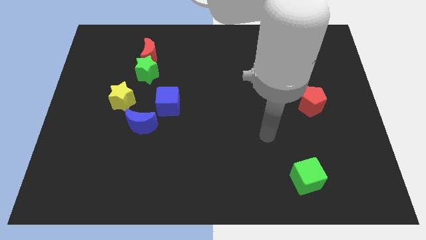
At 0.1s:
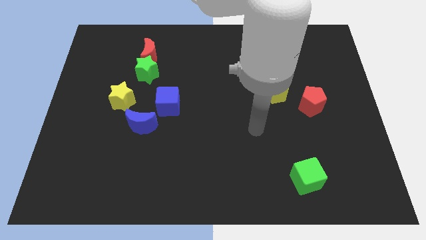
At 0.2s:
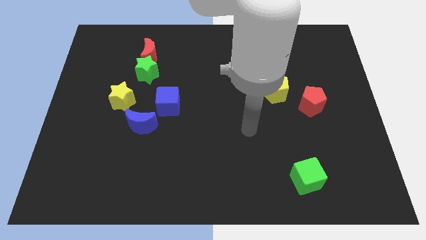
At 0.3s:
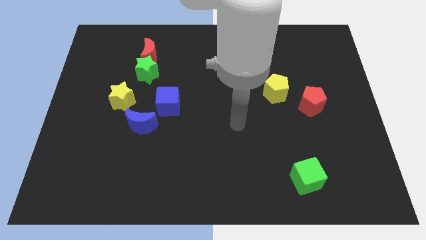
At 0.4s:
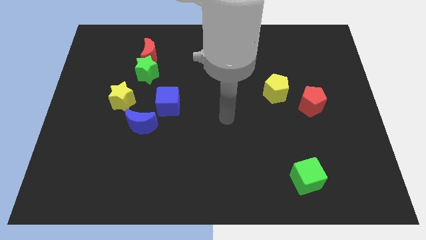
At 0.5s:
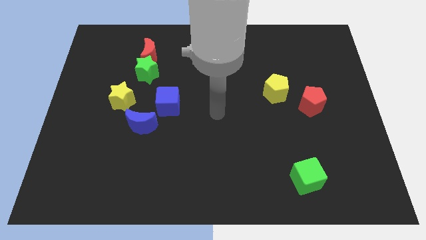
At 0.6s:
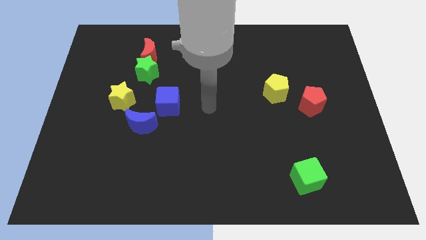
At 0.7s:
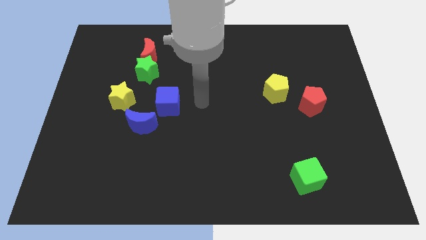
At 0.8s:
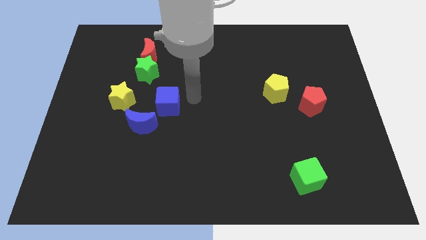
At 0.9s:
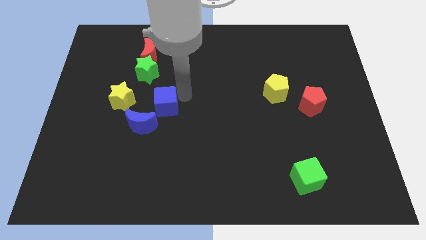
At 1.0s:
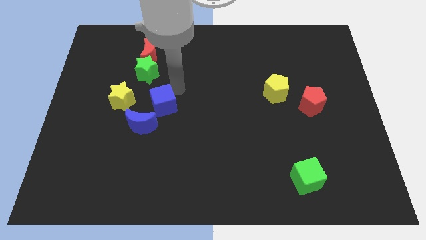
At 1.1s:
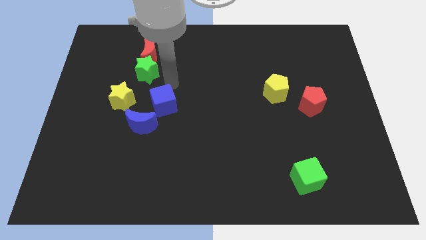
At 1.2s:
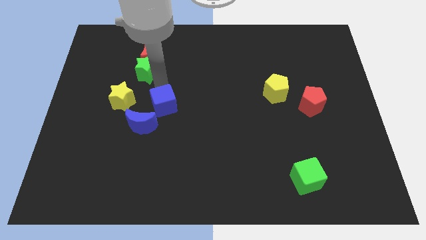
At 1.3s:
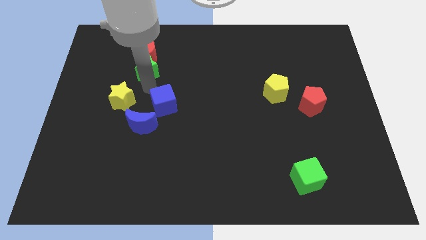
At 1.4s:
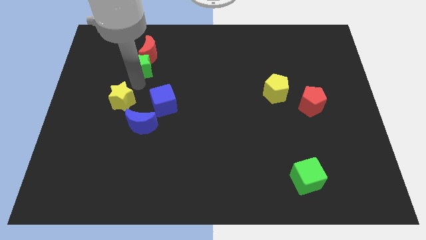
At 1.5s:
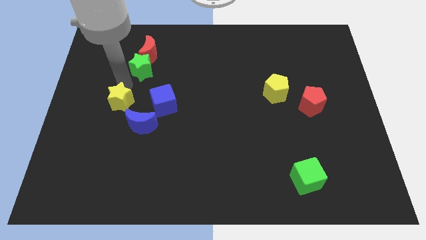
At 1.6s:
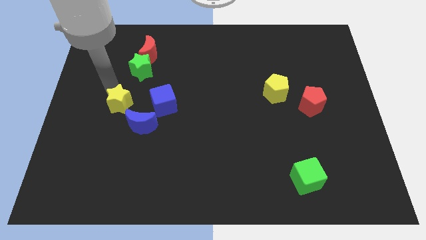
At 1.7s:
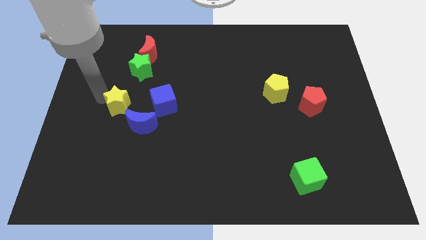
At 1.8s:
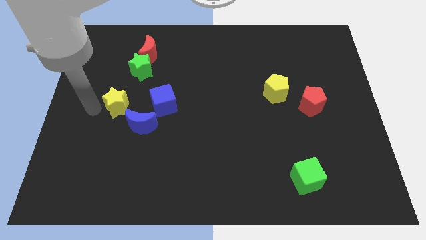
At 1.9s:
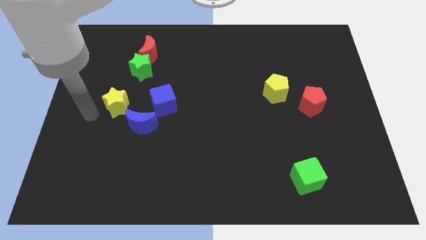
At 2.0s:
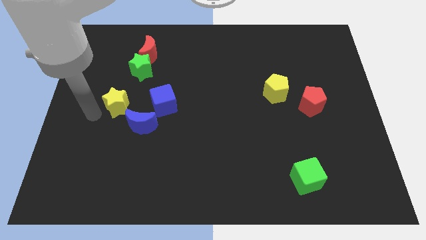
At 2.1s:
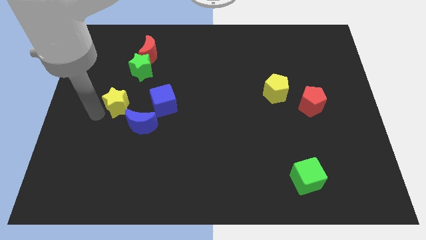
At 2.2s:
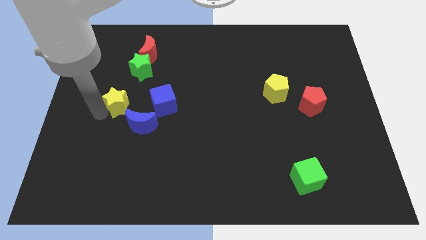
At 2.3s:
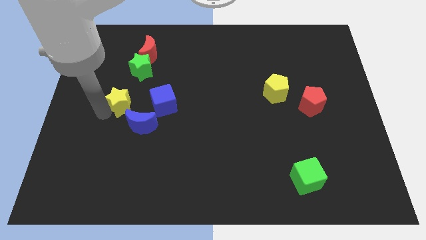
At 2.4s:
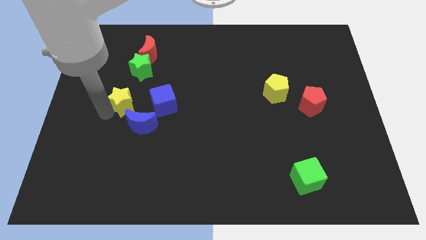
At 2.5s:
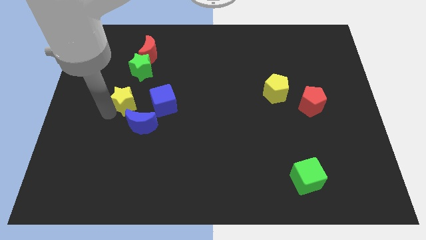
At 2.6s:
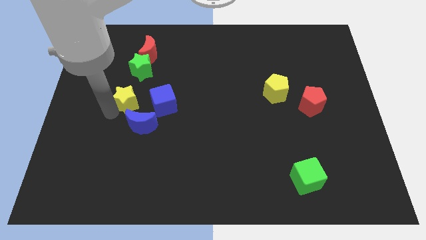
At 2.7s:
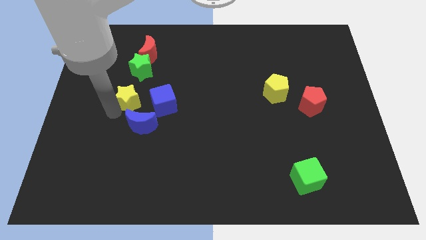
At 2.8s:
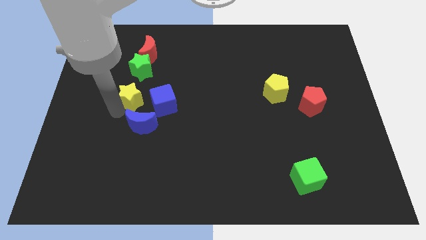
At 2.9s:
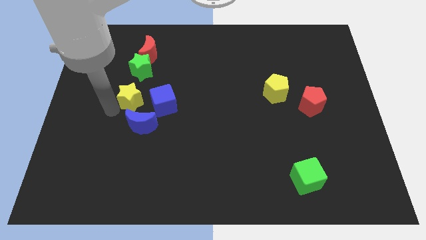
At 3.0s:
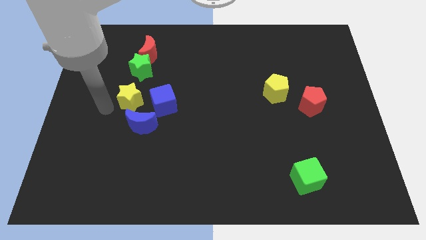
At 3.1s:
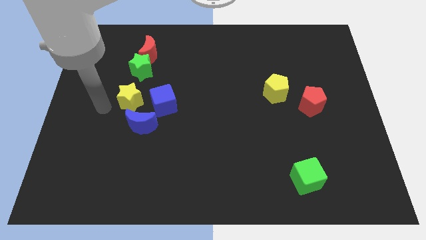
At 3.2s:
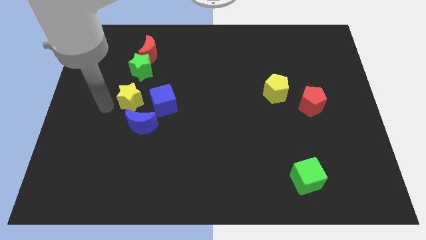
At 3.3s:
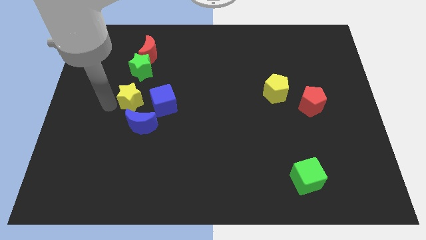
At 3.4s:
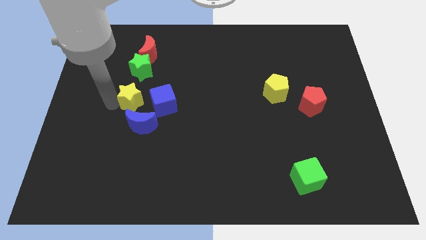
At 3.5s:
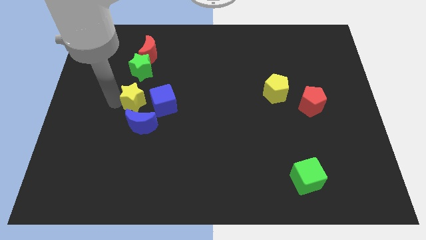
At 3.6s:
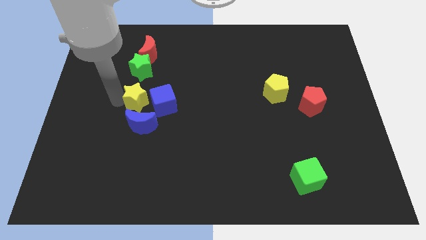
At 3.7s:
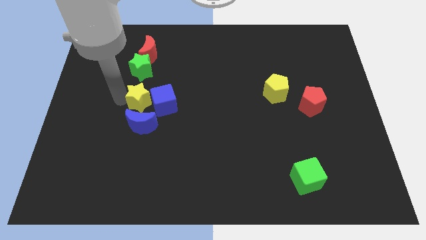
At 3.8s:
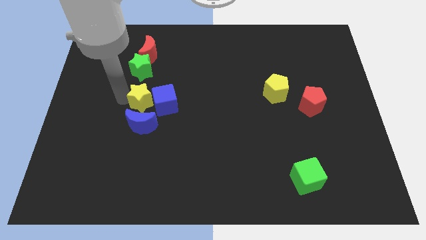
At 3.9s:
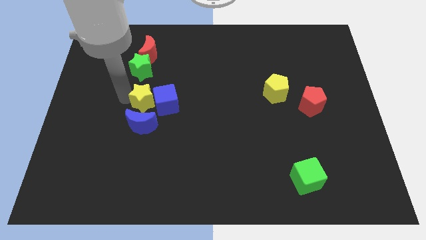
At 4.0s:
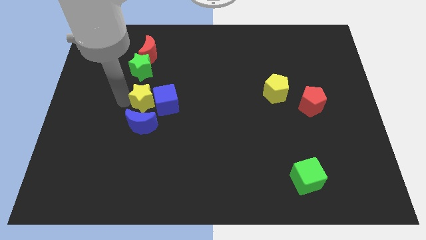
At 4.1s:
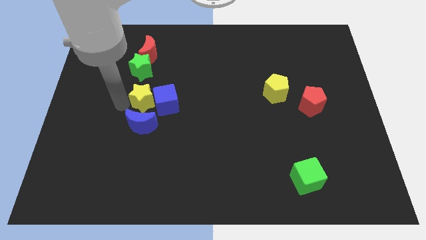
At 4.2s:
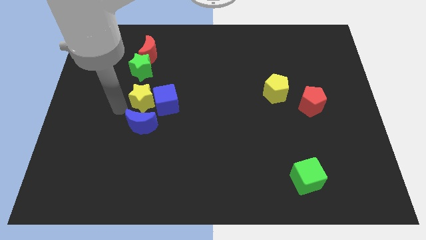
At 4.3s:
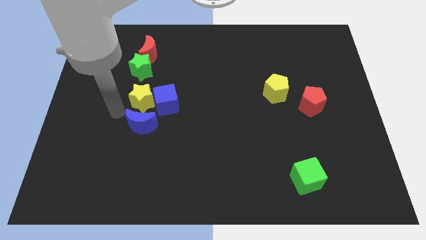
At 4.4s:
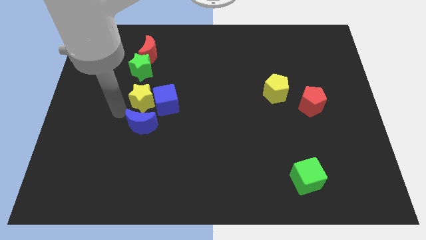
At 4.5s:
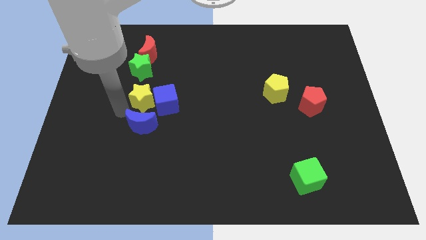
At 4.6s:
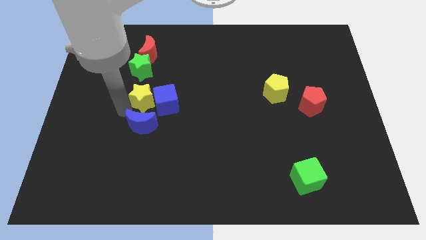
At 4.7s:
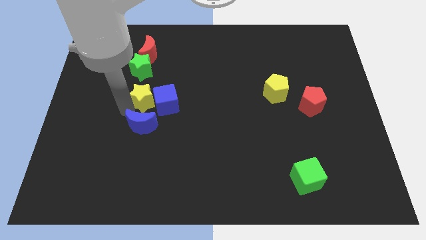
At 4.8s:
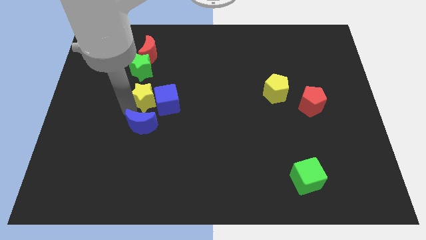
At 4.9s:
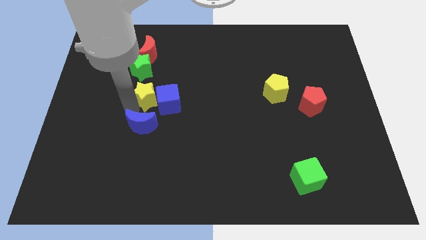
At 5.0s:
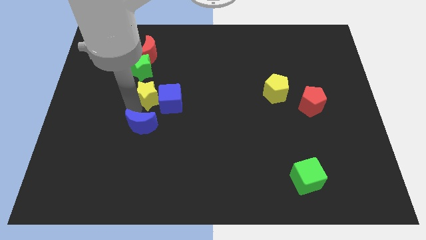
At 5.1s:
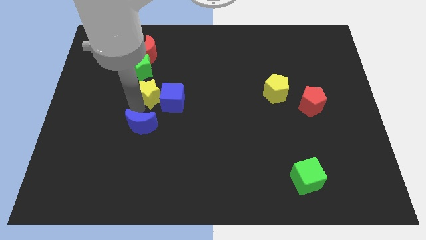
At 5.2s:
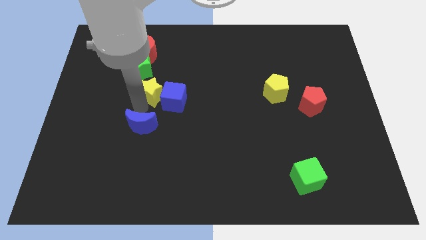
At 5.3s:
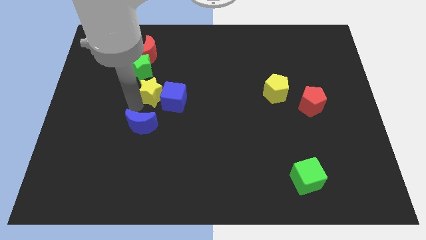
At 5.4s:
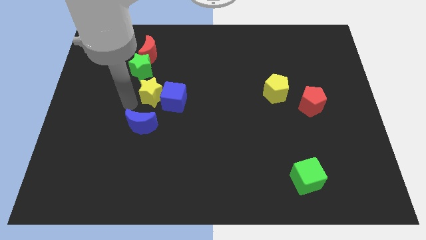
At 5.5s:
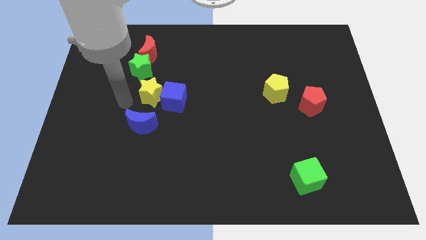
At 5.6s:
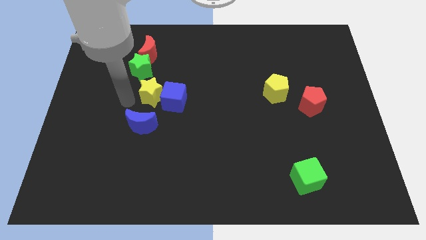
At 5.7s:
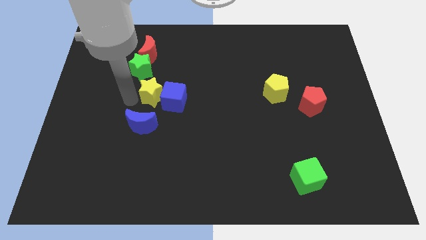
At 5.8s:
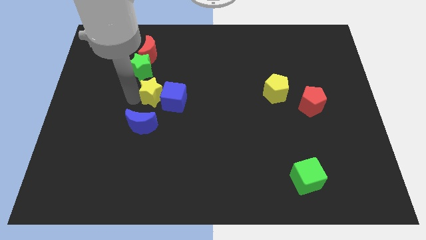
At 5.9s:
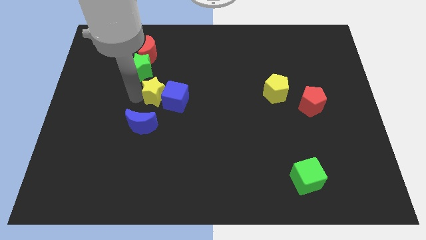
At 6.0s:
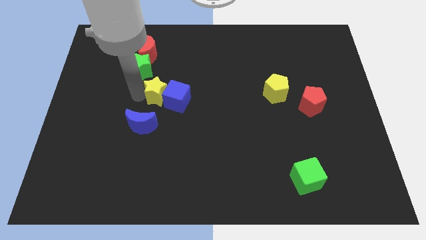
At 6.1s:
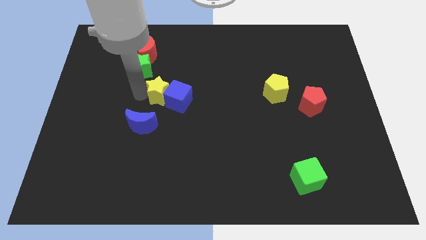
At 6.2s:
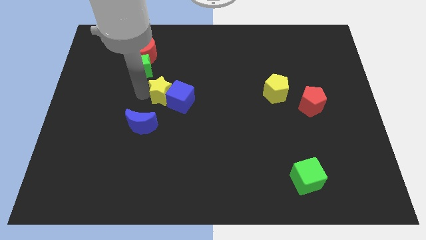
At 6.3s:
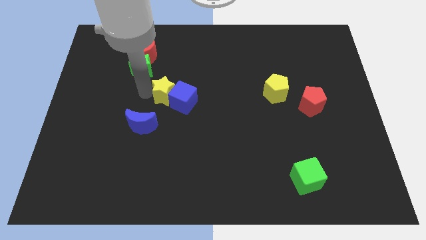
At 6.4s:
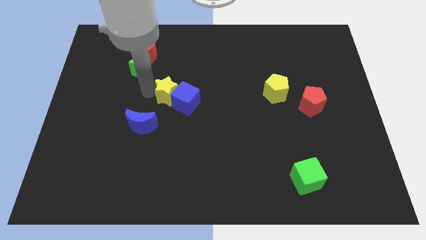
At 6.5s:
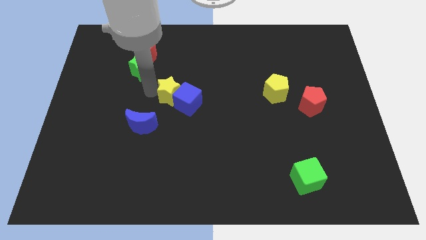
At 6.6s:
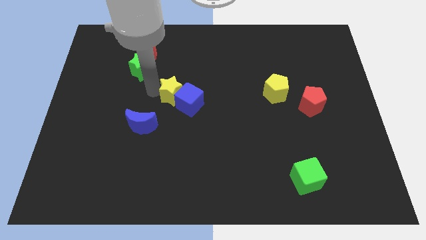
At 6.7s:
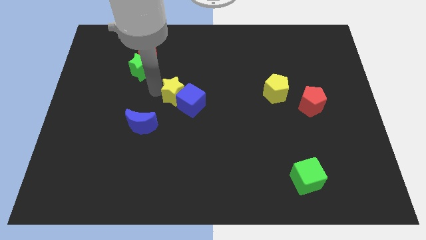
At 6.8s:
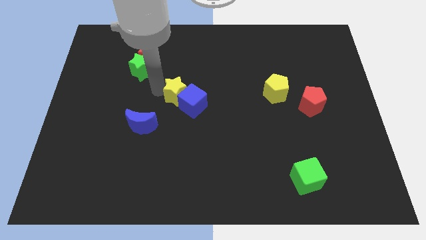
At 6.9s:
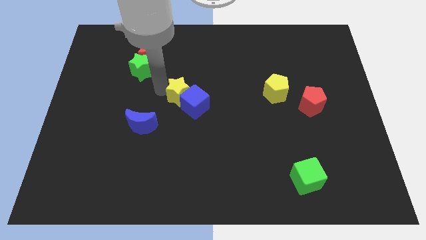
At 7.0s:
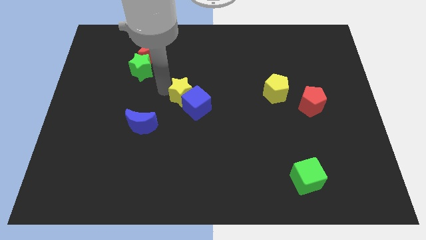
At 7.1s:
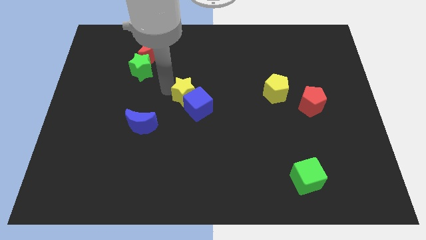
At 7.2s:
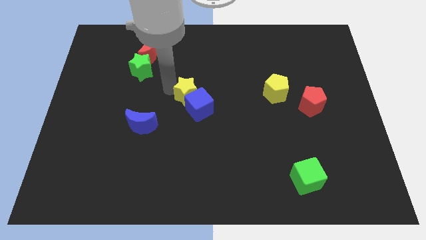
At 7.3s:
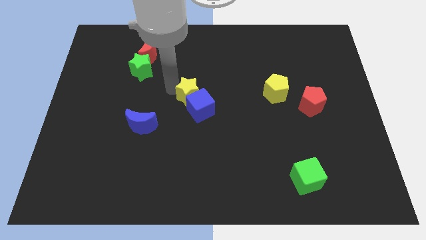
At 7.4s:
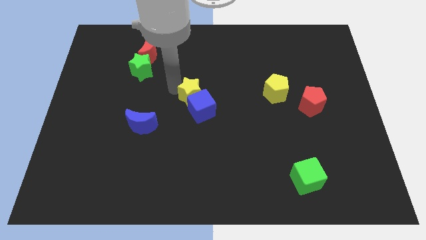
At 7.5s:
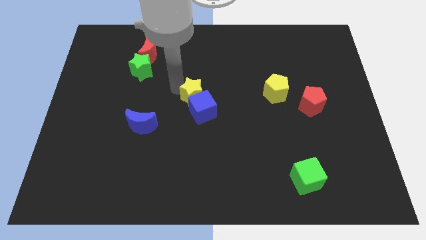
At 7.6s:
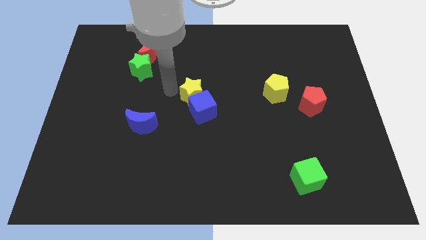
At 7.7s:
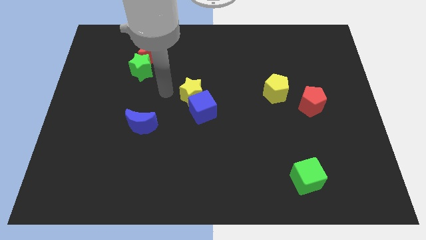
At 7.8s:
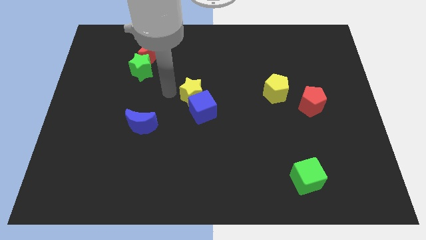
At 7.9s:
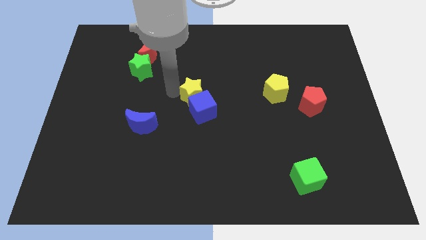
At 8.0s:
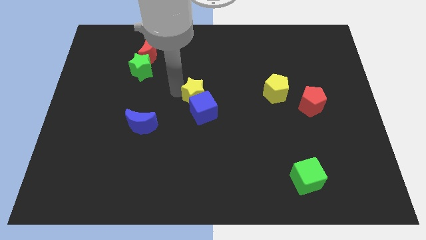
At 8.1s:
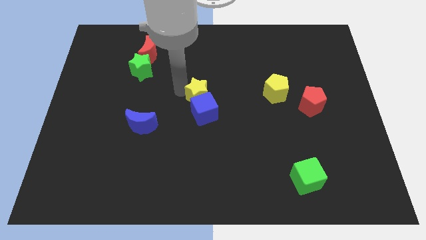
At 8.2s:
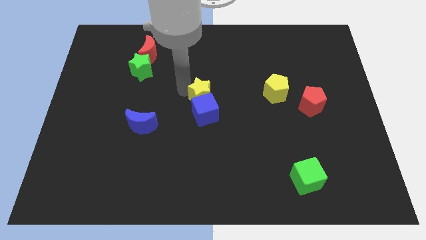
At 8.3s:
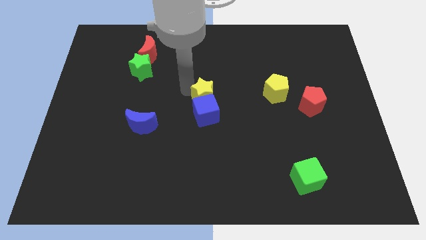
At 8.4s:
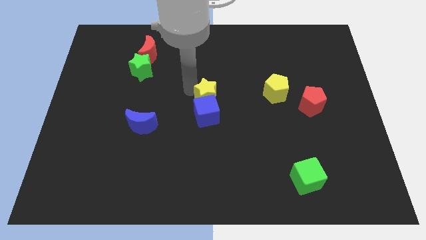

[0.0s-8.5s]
slide the yellow star to the right
